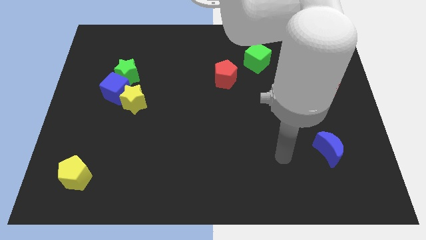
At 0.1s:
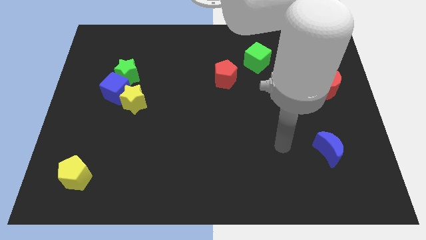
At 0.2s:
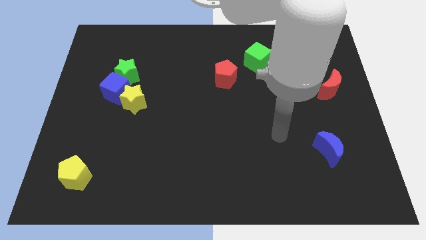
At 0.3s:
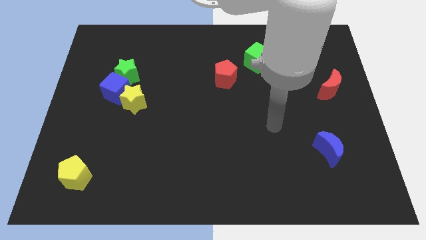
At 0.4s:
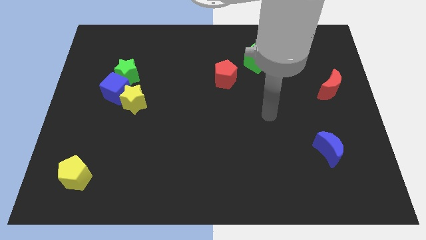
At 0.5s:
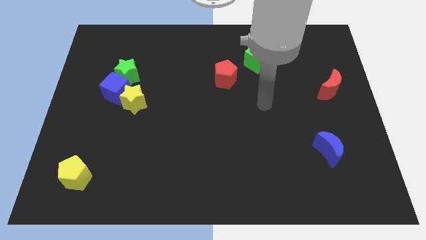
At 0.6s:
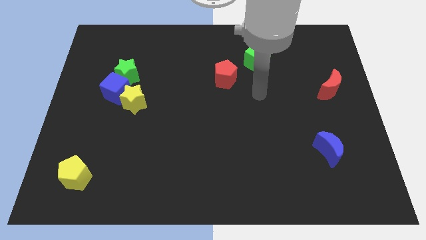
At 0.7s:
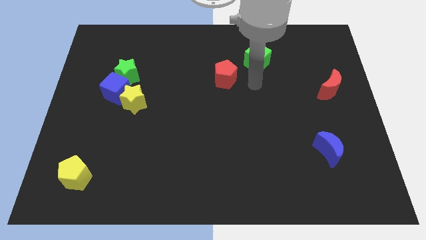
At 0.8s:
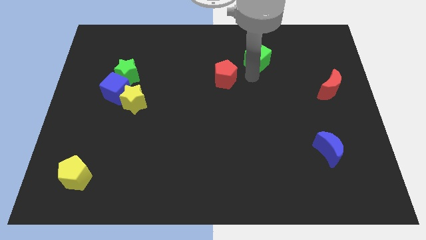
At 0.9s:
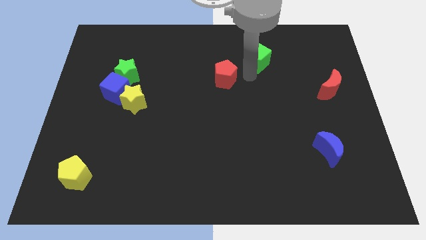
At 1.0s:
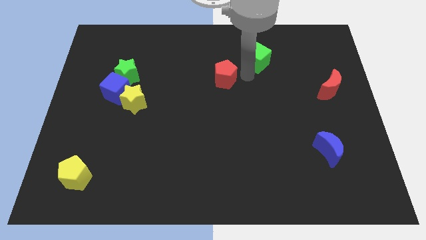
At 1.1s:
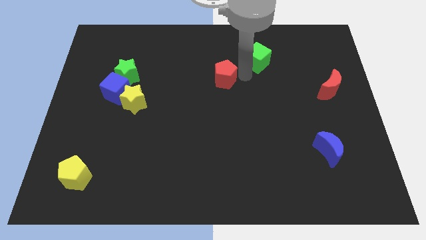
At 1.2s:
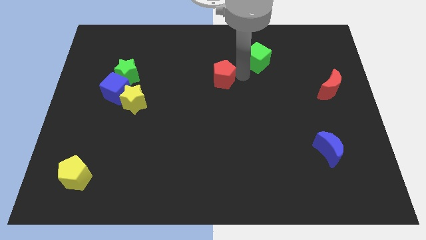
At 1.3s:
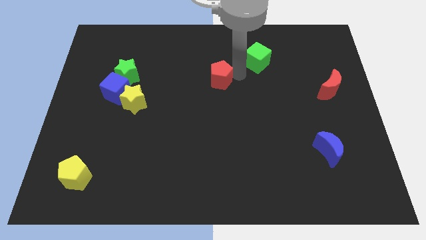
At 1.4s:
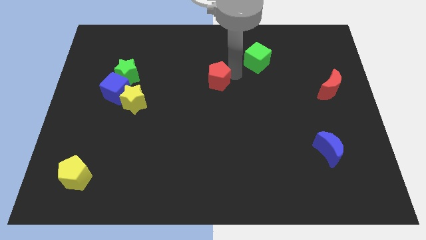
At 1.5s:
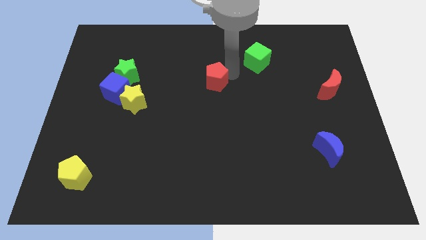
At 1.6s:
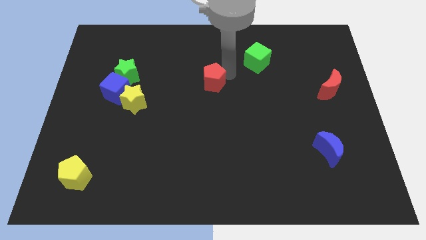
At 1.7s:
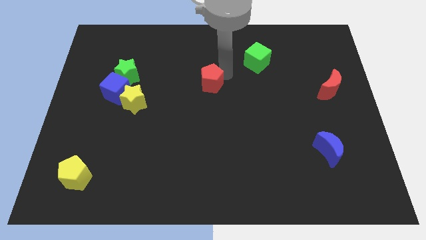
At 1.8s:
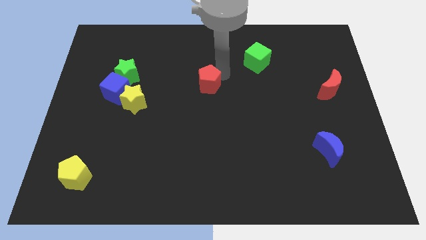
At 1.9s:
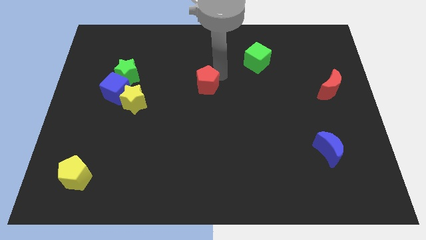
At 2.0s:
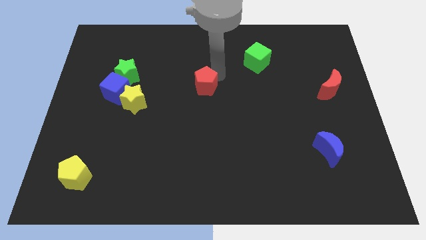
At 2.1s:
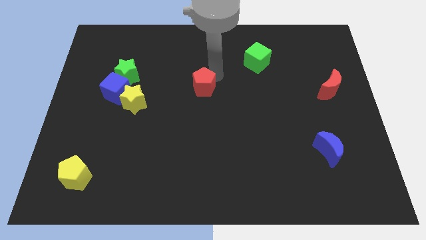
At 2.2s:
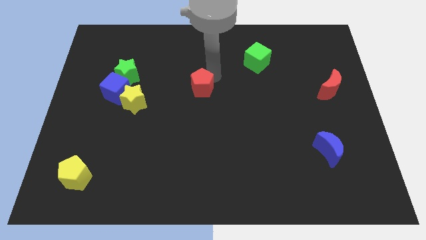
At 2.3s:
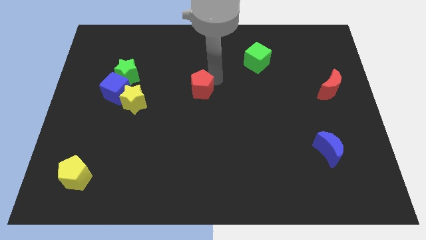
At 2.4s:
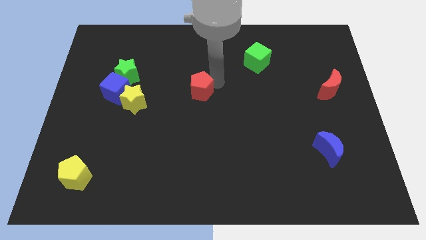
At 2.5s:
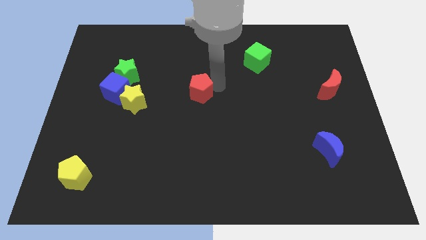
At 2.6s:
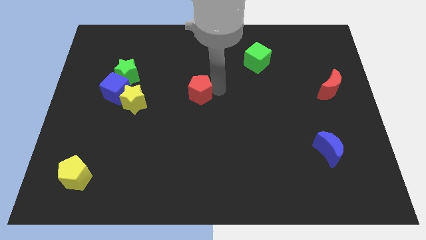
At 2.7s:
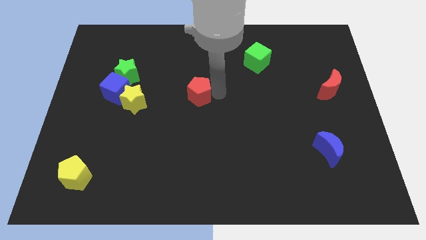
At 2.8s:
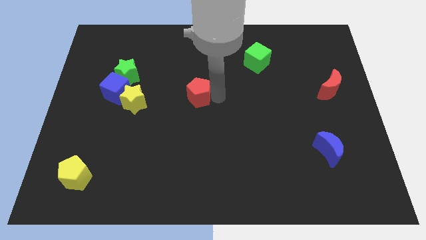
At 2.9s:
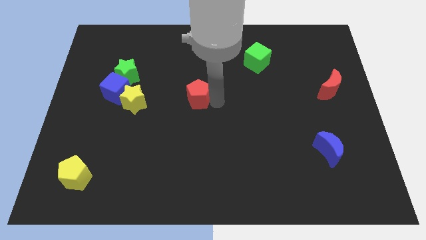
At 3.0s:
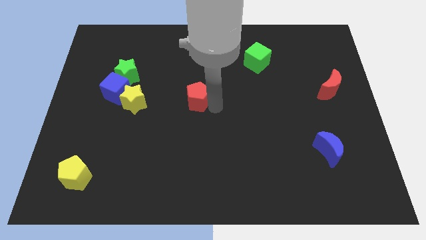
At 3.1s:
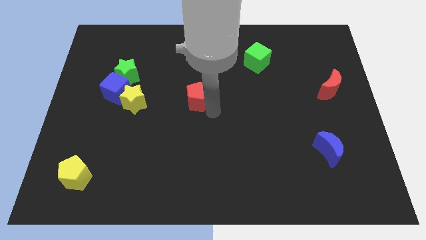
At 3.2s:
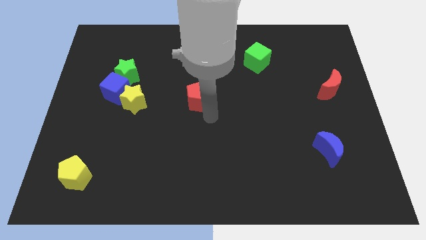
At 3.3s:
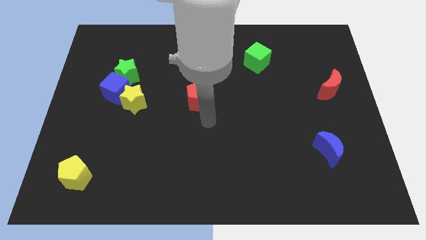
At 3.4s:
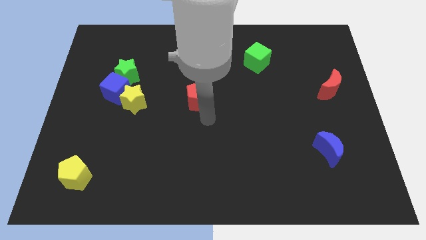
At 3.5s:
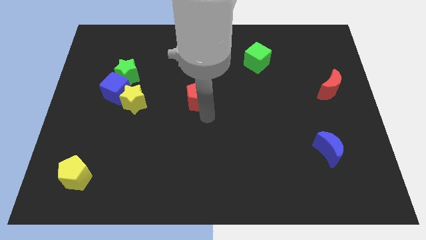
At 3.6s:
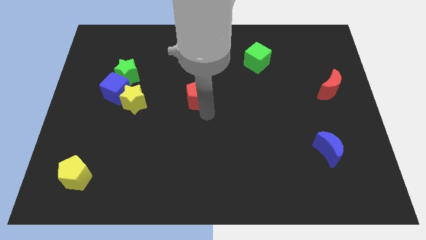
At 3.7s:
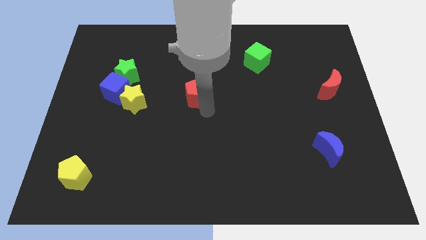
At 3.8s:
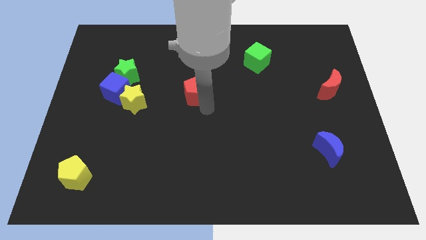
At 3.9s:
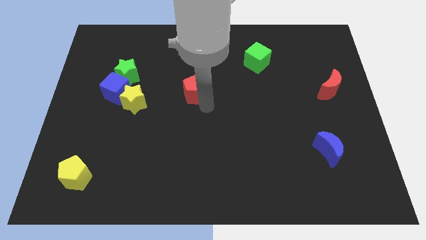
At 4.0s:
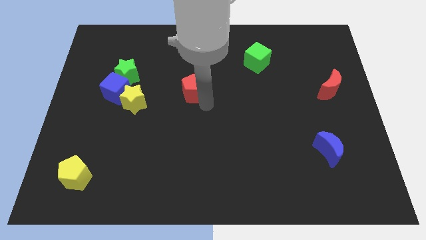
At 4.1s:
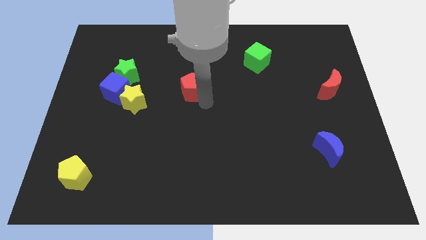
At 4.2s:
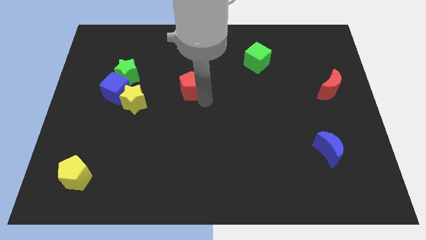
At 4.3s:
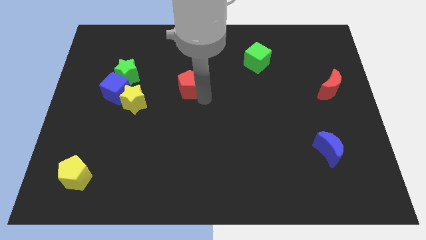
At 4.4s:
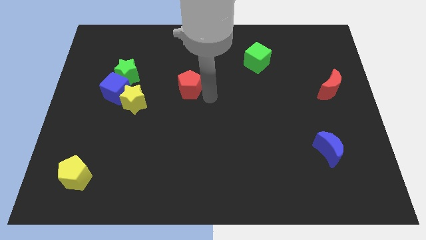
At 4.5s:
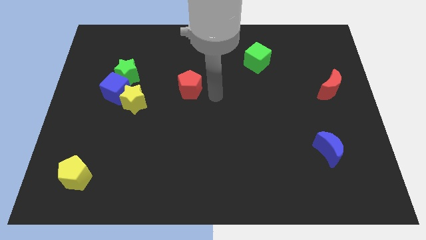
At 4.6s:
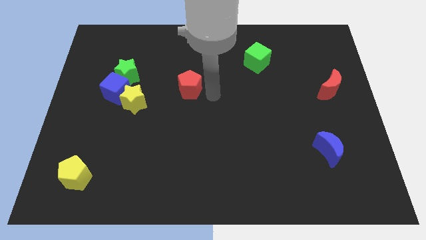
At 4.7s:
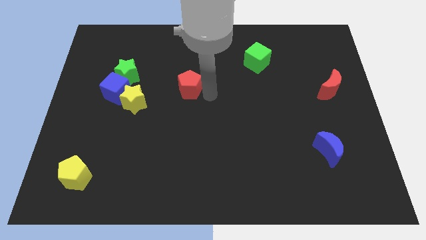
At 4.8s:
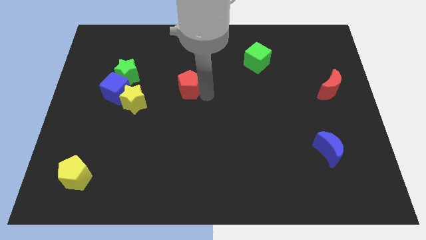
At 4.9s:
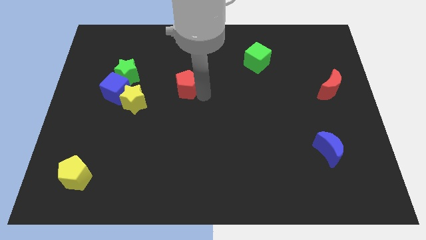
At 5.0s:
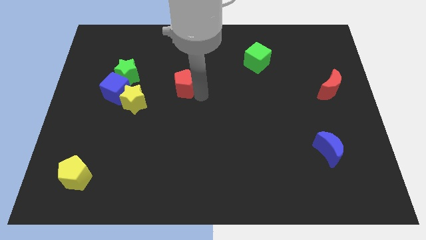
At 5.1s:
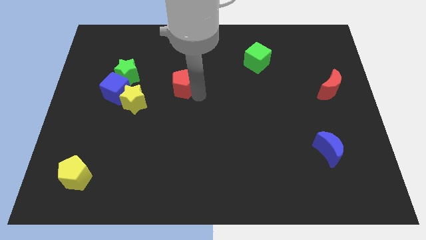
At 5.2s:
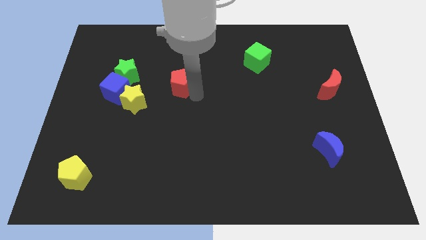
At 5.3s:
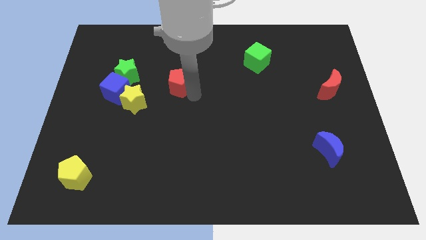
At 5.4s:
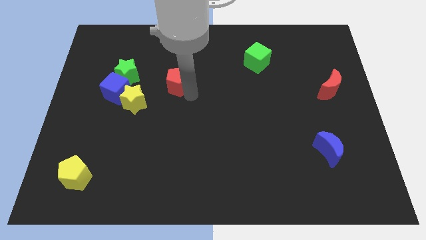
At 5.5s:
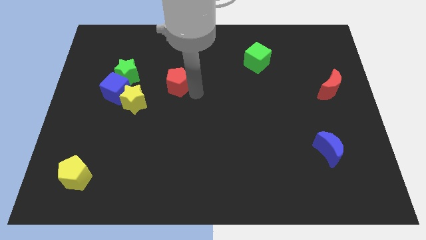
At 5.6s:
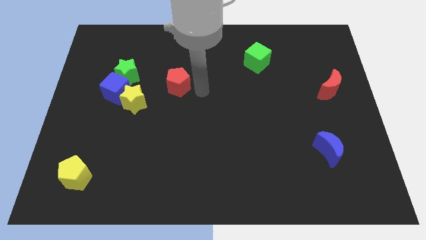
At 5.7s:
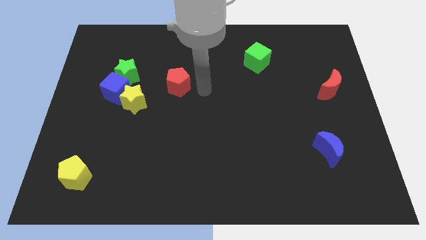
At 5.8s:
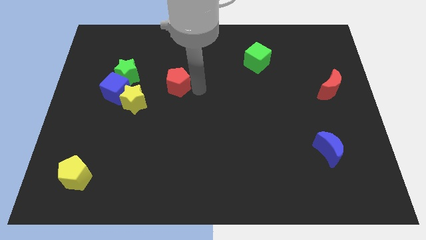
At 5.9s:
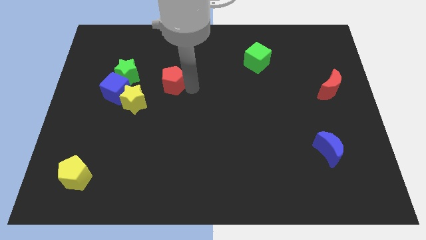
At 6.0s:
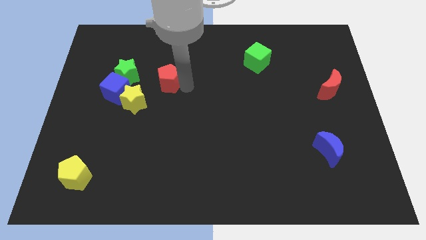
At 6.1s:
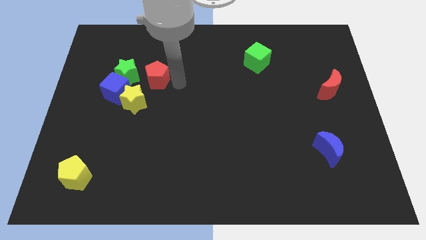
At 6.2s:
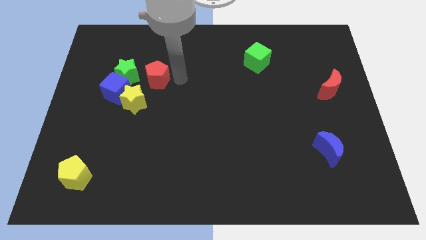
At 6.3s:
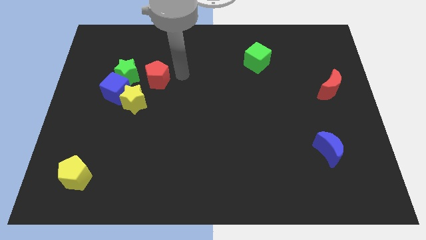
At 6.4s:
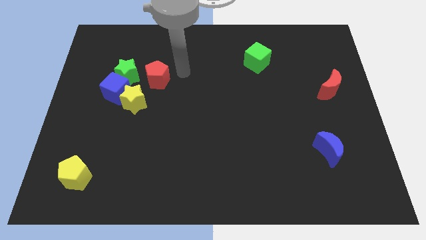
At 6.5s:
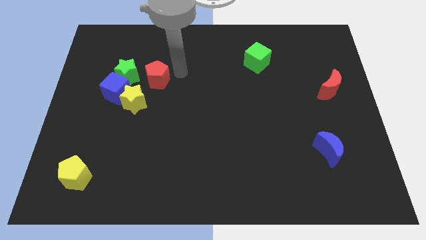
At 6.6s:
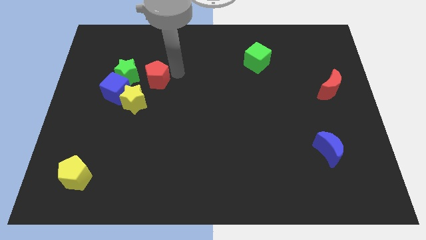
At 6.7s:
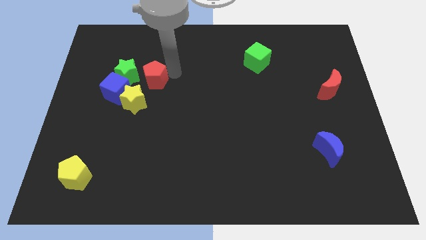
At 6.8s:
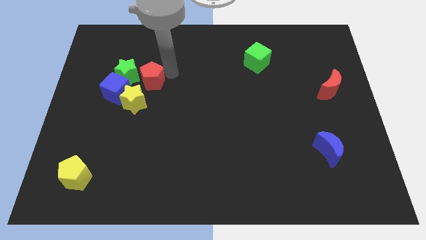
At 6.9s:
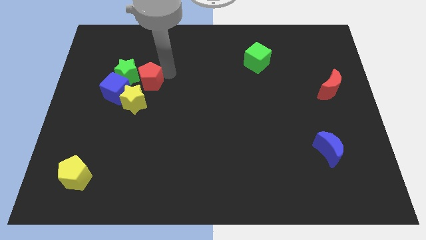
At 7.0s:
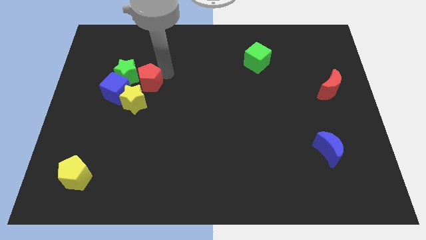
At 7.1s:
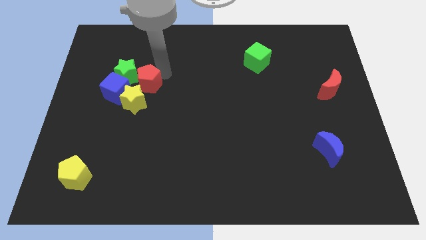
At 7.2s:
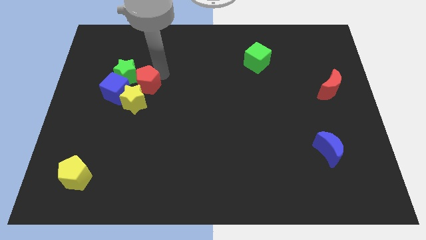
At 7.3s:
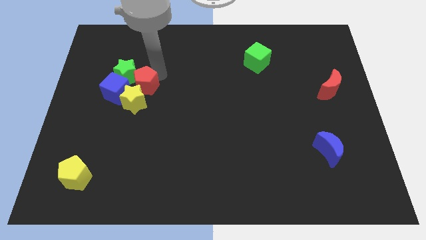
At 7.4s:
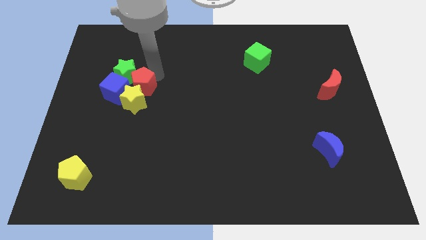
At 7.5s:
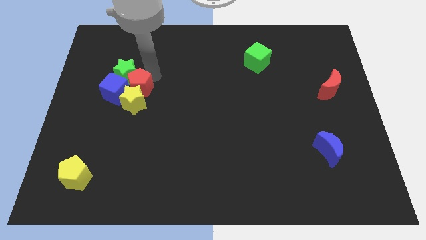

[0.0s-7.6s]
push the red pentagon to the blue cube

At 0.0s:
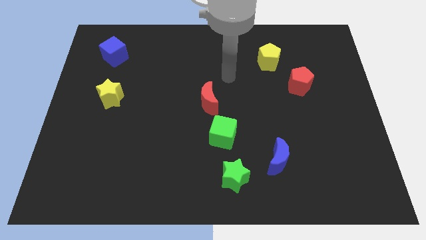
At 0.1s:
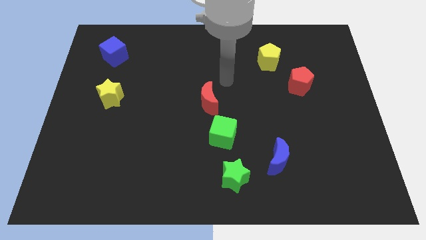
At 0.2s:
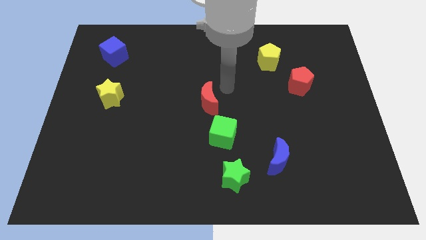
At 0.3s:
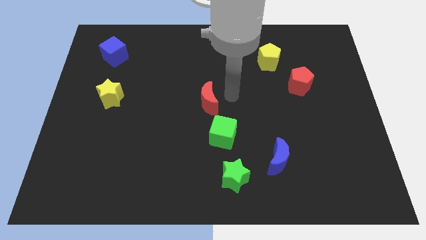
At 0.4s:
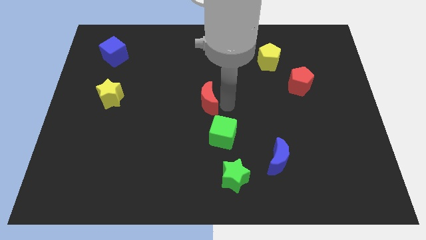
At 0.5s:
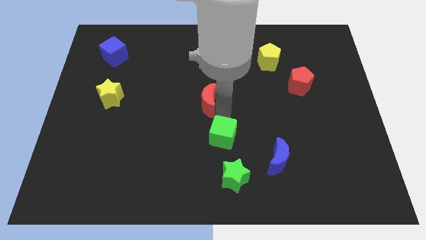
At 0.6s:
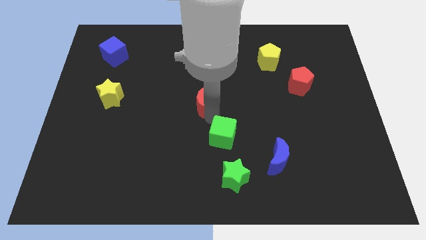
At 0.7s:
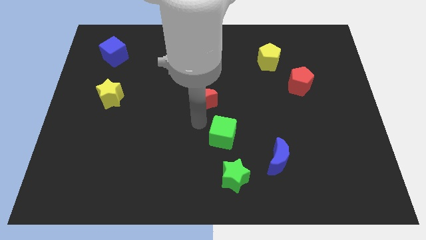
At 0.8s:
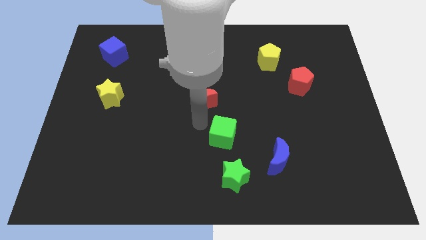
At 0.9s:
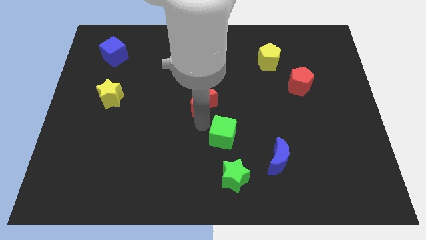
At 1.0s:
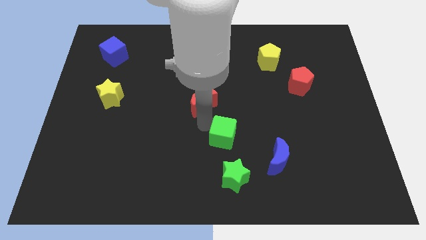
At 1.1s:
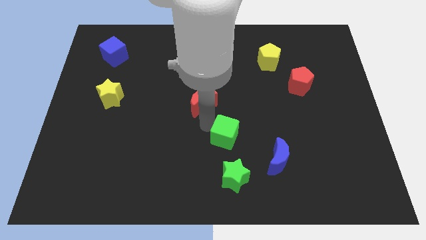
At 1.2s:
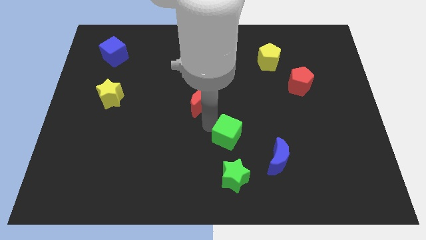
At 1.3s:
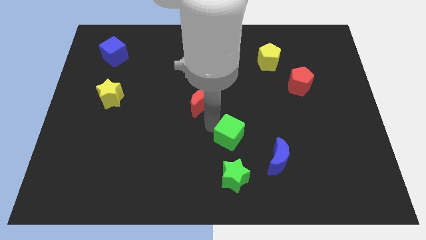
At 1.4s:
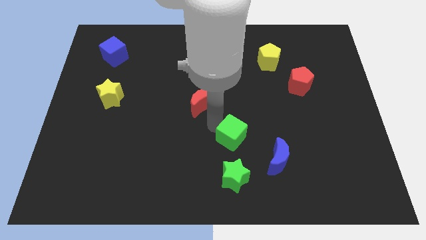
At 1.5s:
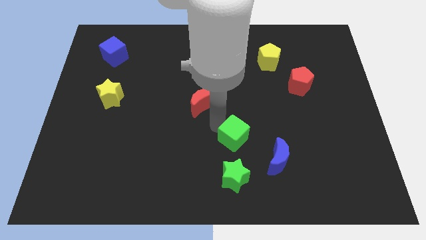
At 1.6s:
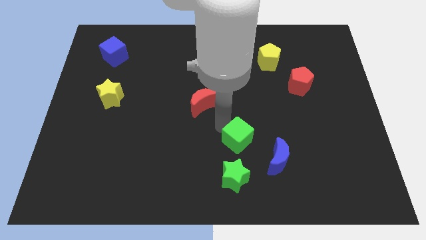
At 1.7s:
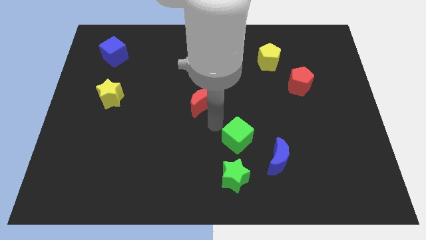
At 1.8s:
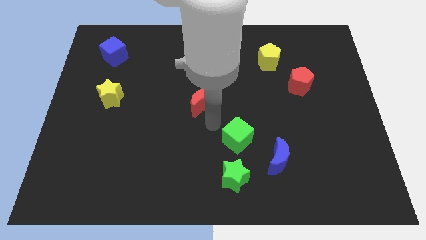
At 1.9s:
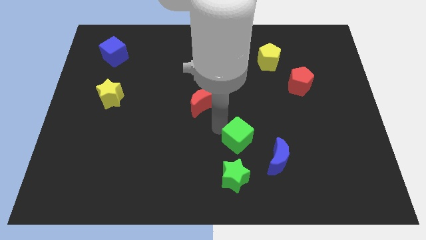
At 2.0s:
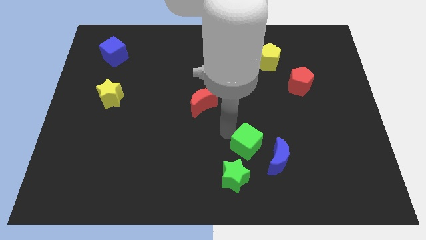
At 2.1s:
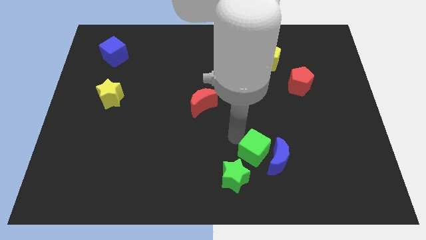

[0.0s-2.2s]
push the green cube close to the blue moon
